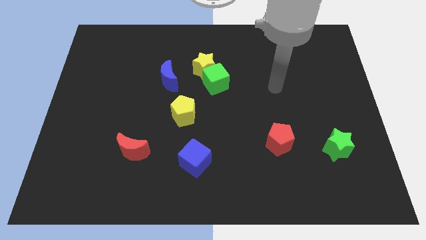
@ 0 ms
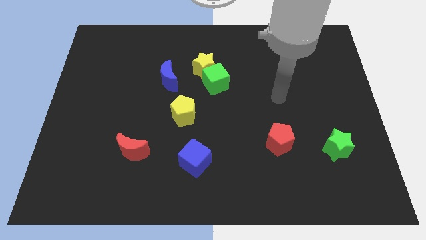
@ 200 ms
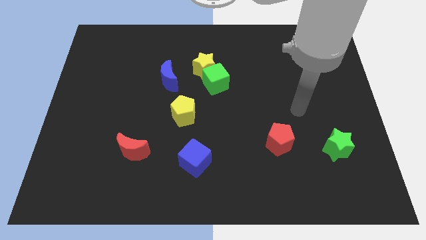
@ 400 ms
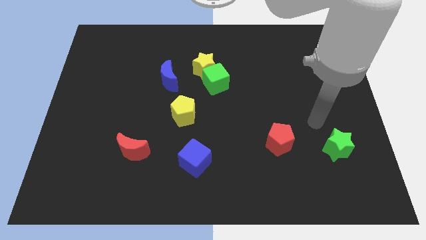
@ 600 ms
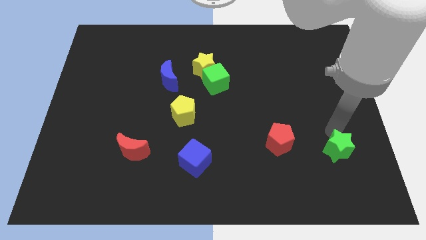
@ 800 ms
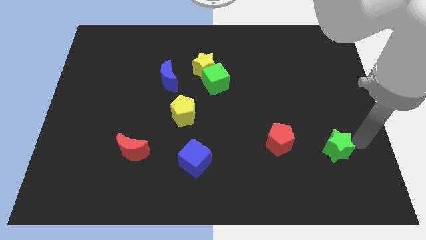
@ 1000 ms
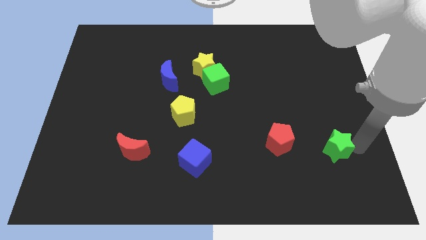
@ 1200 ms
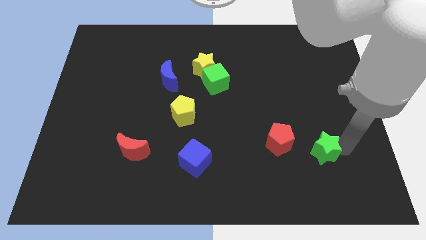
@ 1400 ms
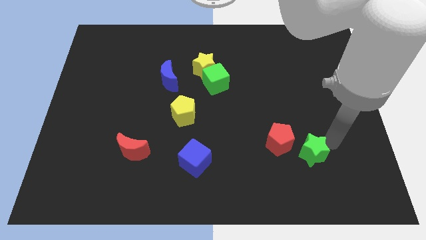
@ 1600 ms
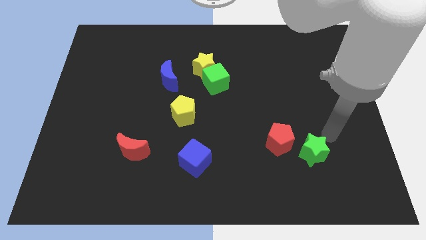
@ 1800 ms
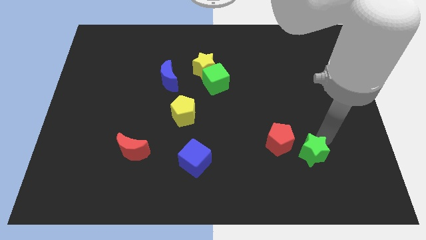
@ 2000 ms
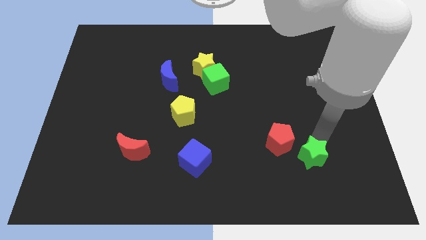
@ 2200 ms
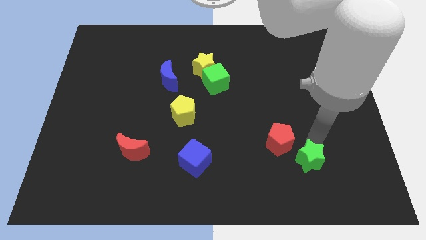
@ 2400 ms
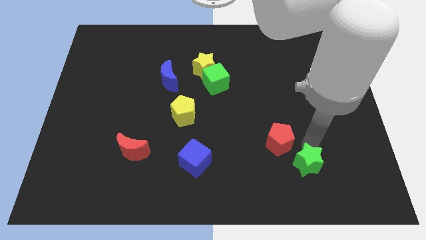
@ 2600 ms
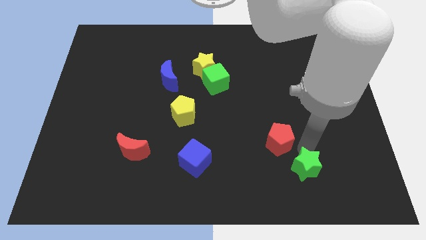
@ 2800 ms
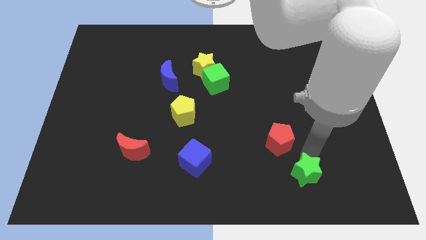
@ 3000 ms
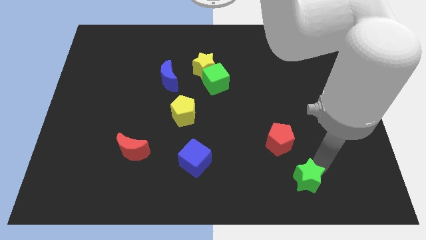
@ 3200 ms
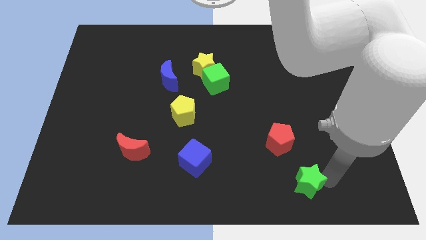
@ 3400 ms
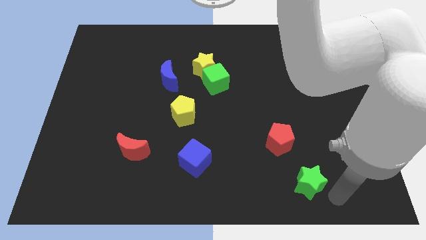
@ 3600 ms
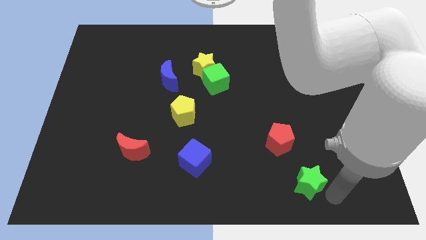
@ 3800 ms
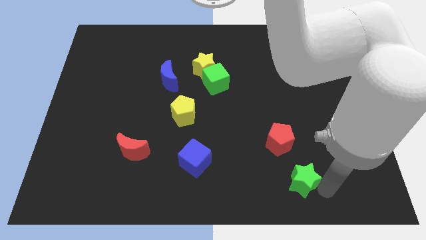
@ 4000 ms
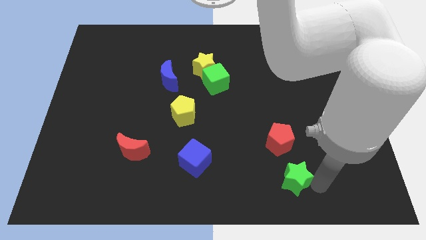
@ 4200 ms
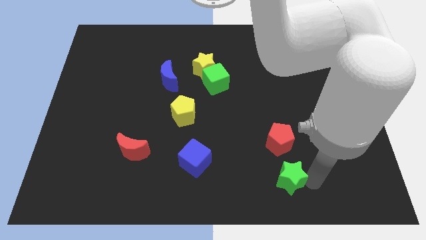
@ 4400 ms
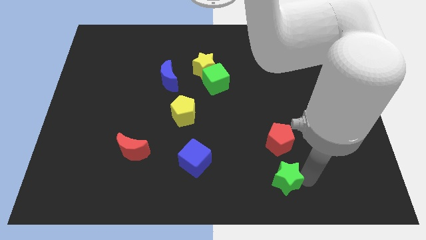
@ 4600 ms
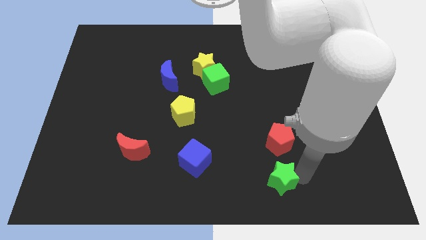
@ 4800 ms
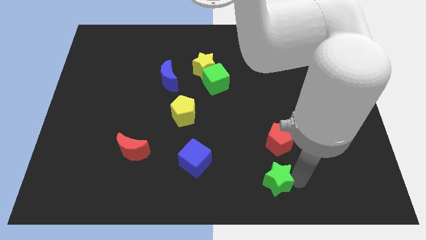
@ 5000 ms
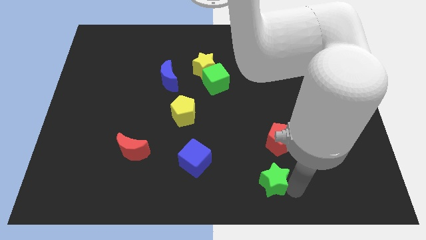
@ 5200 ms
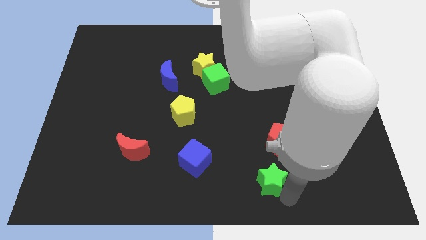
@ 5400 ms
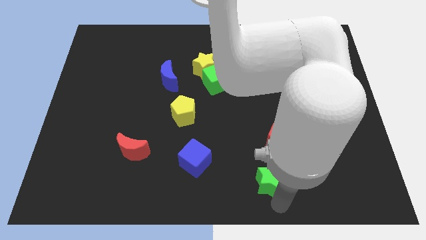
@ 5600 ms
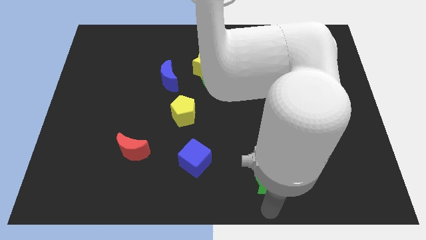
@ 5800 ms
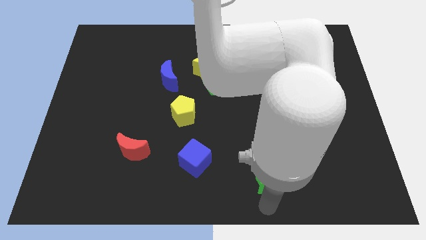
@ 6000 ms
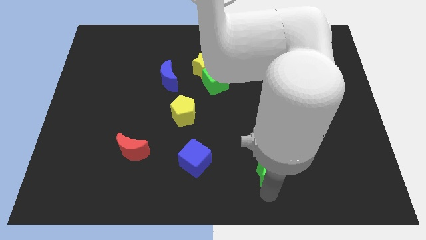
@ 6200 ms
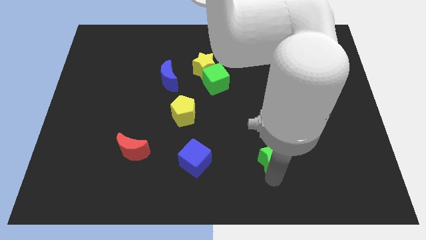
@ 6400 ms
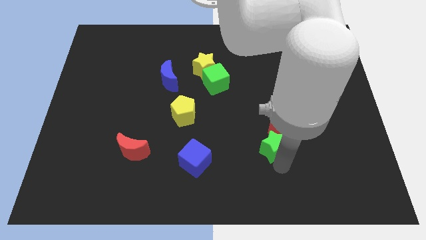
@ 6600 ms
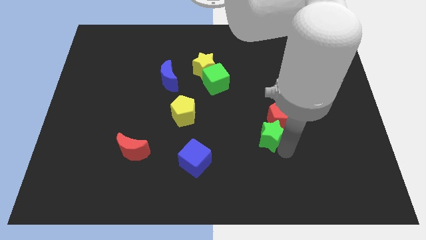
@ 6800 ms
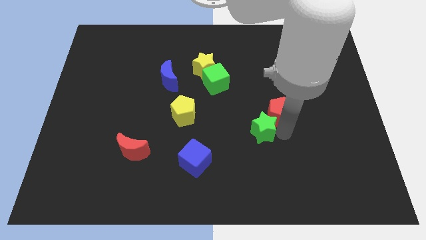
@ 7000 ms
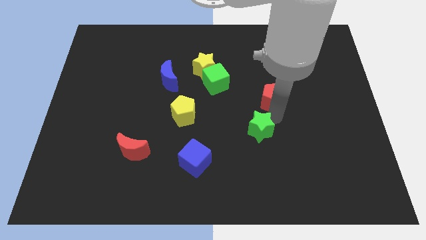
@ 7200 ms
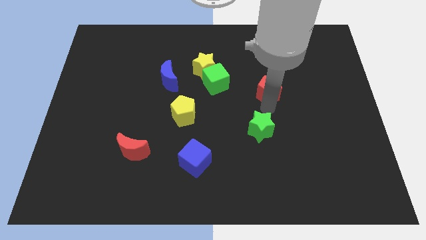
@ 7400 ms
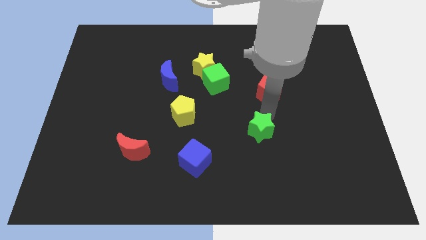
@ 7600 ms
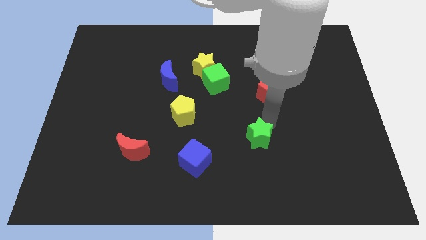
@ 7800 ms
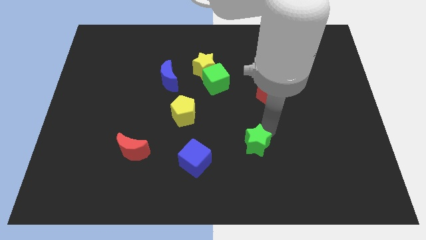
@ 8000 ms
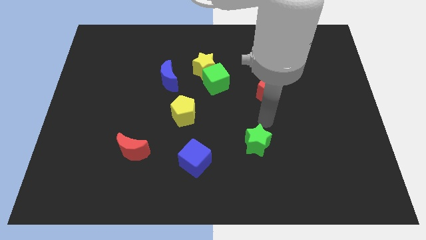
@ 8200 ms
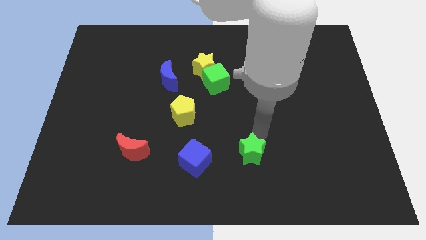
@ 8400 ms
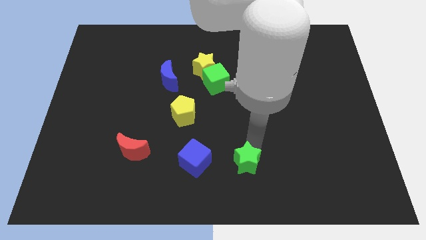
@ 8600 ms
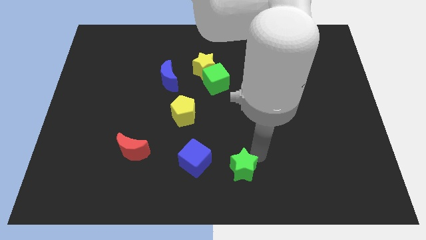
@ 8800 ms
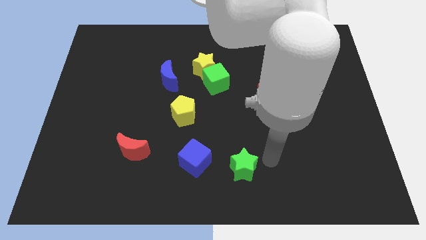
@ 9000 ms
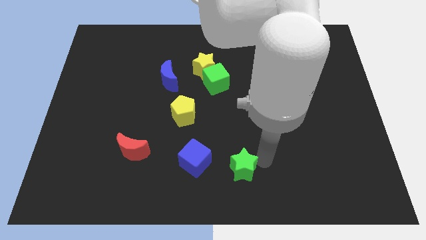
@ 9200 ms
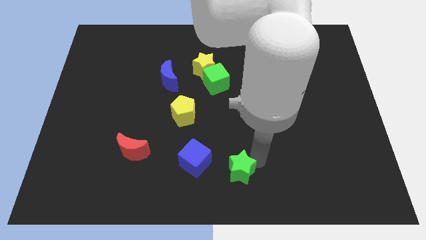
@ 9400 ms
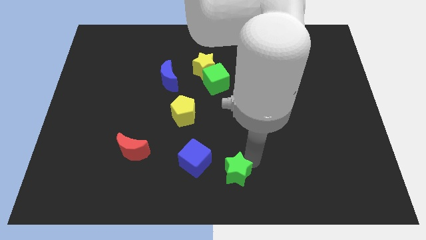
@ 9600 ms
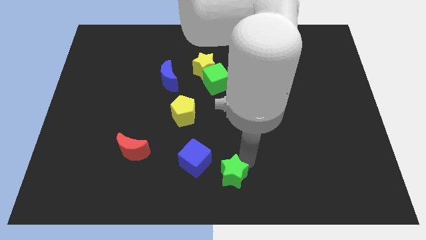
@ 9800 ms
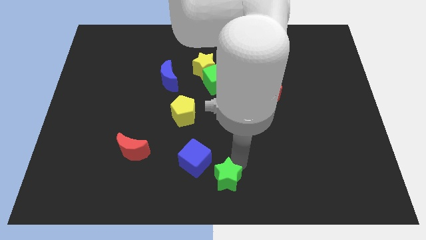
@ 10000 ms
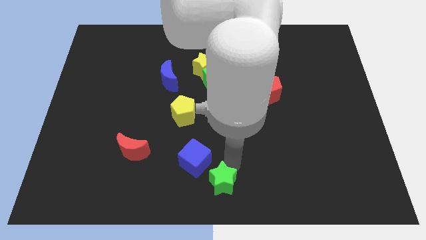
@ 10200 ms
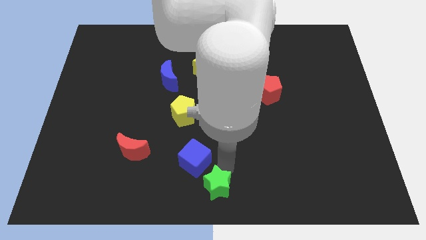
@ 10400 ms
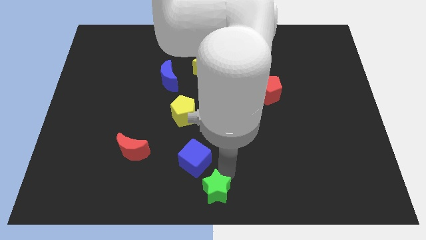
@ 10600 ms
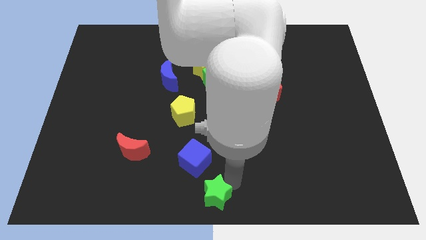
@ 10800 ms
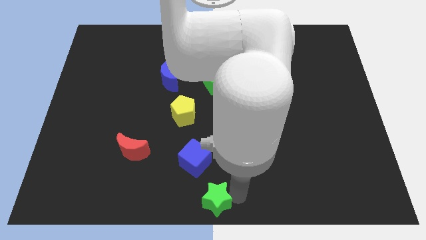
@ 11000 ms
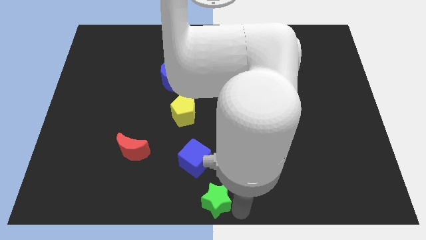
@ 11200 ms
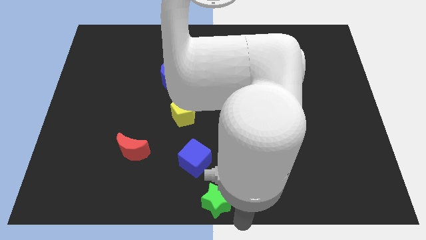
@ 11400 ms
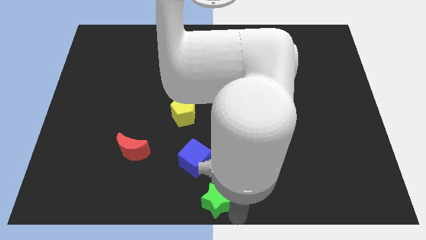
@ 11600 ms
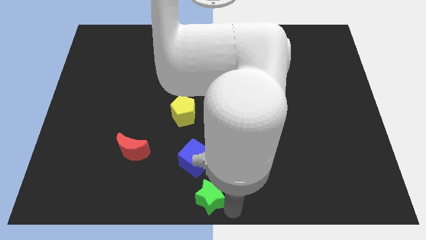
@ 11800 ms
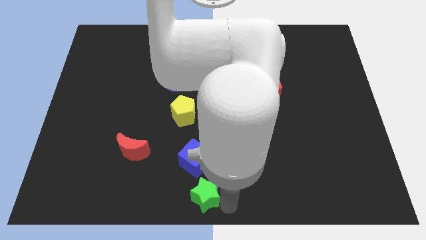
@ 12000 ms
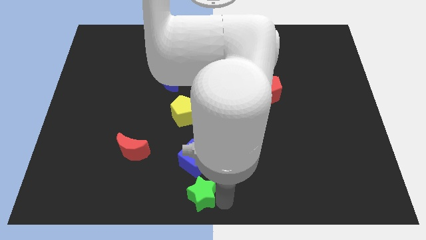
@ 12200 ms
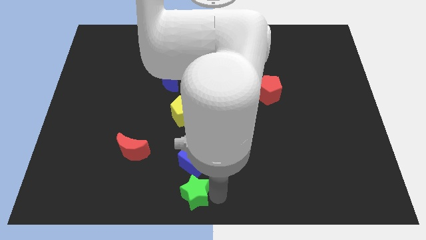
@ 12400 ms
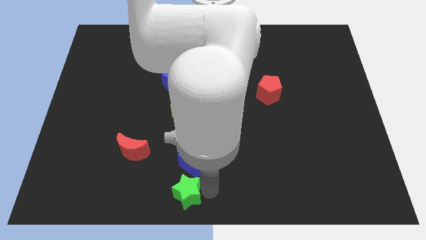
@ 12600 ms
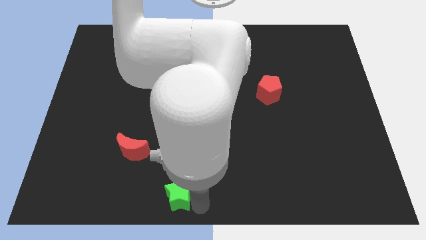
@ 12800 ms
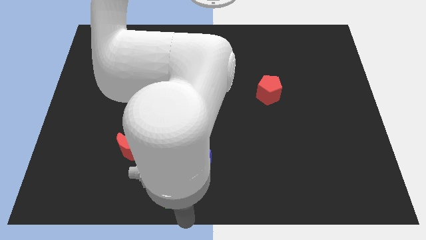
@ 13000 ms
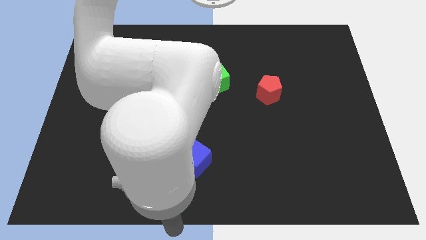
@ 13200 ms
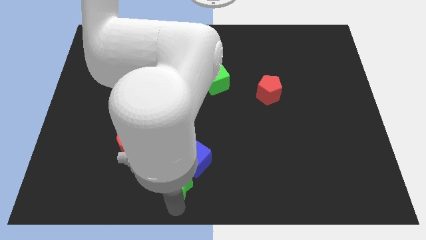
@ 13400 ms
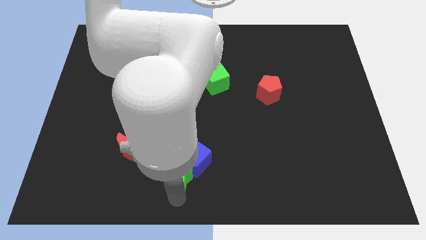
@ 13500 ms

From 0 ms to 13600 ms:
push the green star below the yellow pentagon
